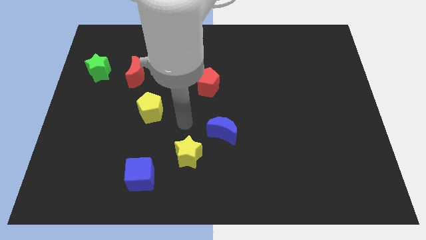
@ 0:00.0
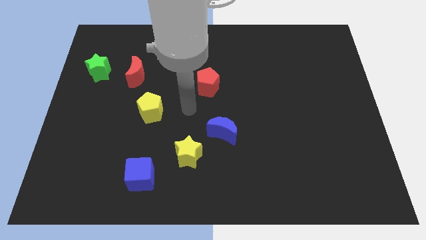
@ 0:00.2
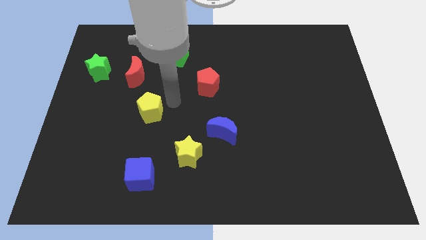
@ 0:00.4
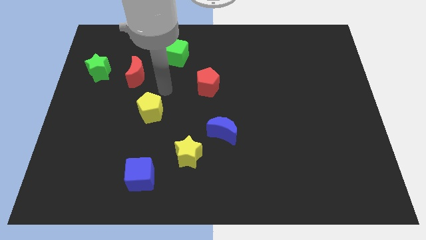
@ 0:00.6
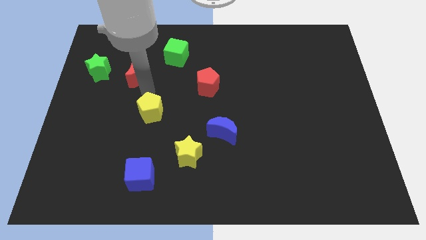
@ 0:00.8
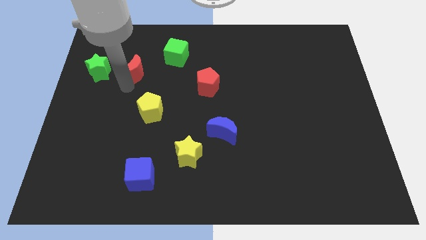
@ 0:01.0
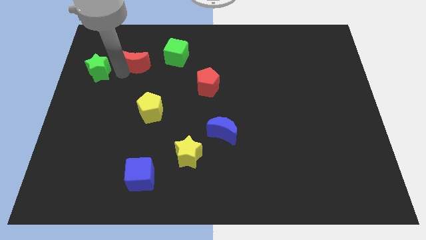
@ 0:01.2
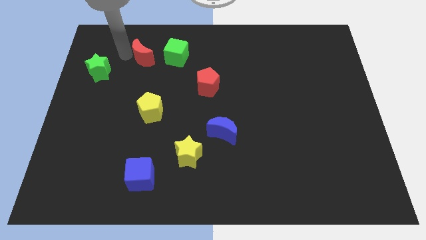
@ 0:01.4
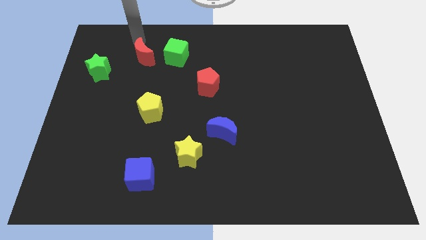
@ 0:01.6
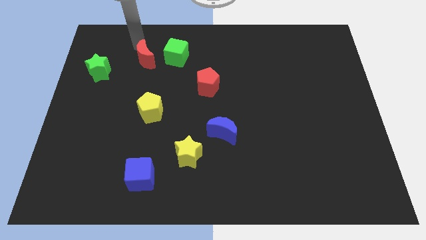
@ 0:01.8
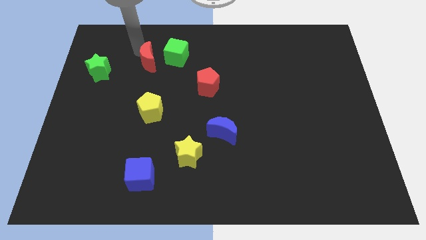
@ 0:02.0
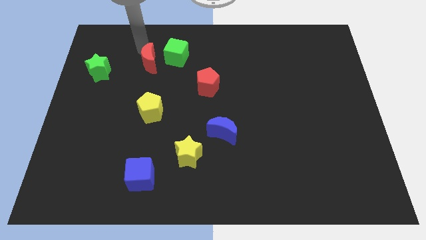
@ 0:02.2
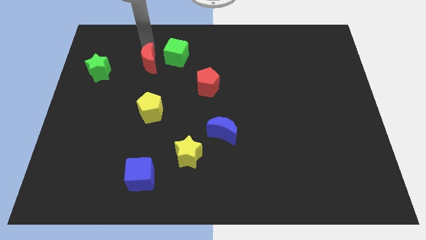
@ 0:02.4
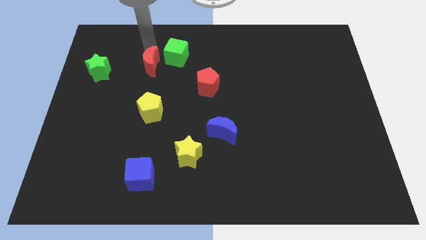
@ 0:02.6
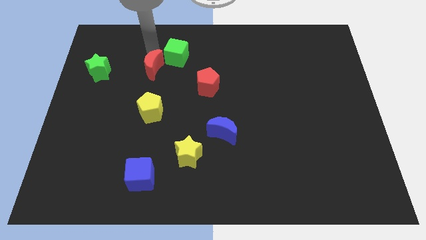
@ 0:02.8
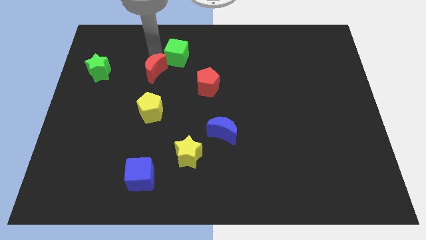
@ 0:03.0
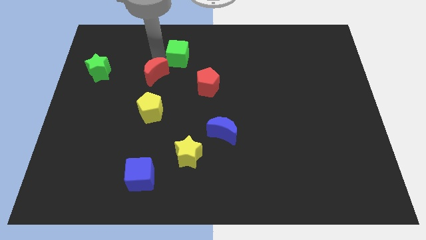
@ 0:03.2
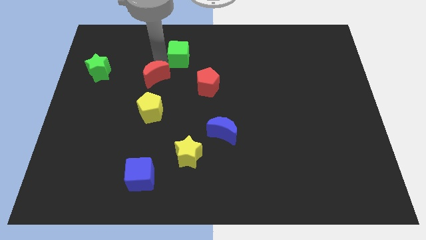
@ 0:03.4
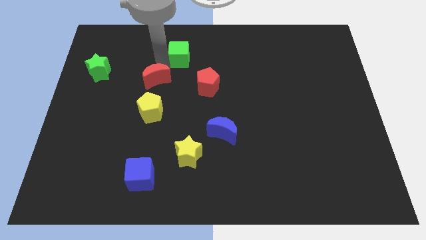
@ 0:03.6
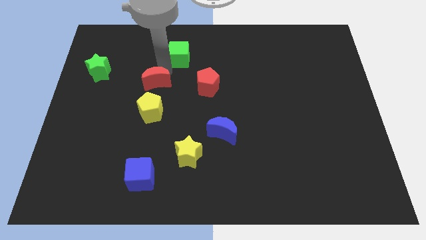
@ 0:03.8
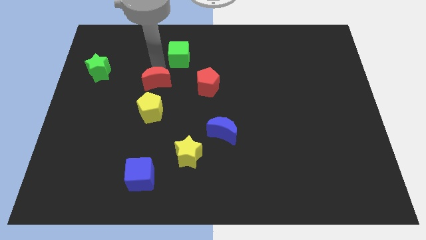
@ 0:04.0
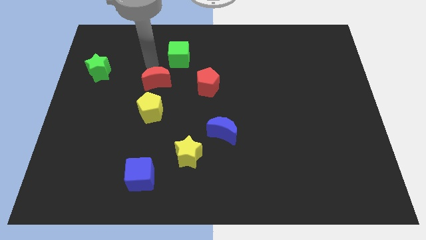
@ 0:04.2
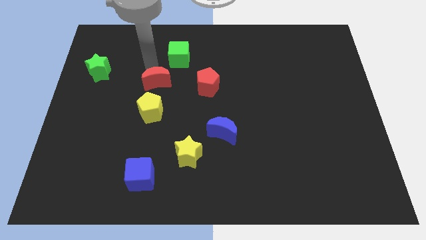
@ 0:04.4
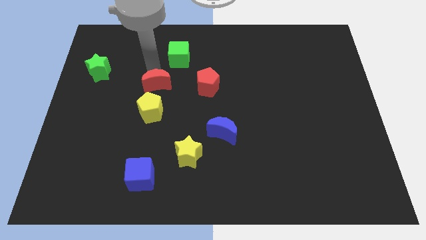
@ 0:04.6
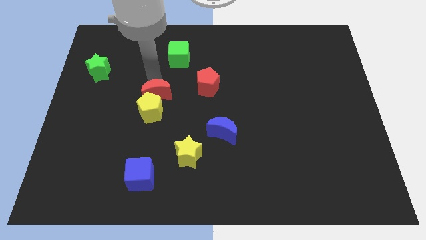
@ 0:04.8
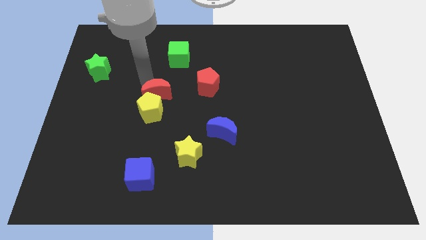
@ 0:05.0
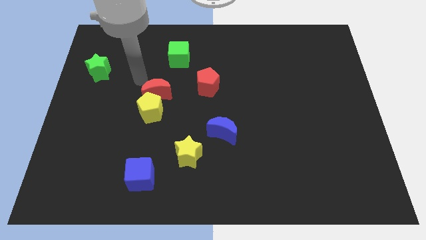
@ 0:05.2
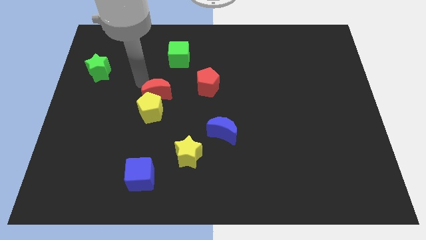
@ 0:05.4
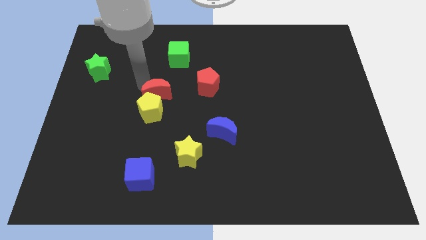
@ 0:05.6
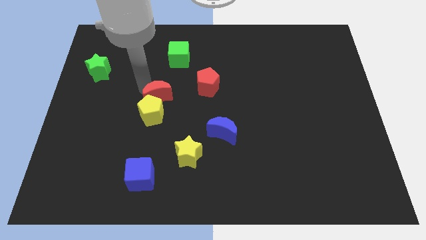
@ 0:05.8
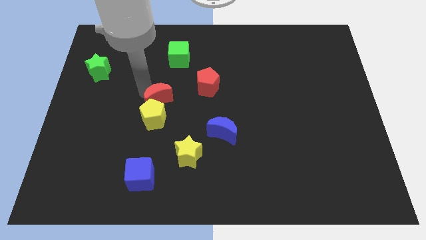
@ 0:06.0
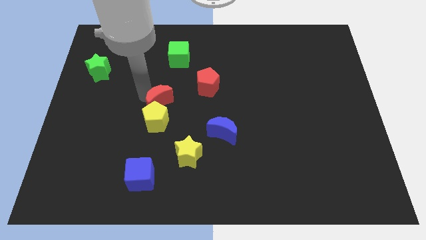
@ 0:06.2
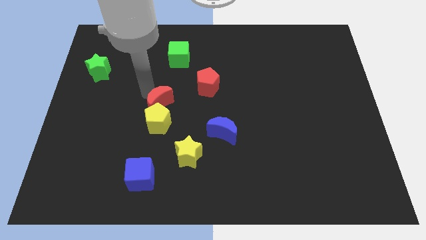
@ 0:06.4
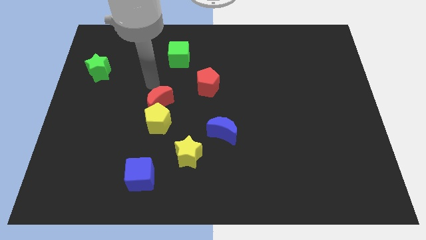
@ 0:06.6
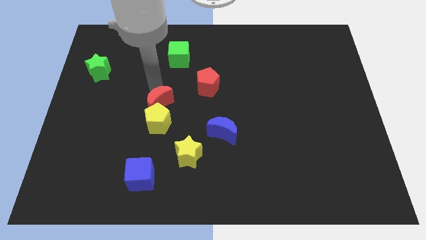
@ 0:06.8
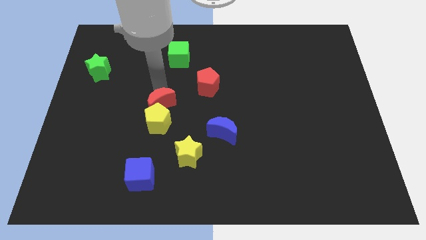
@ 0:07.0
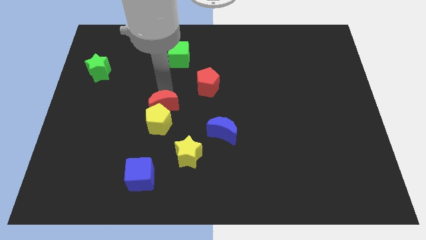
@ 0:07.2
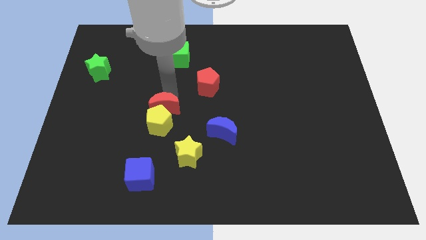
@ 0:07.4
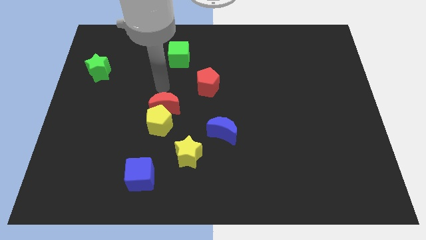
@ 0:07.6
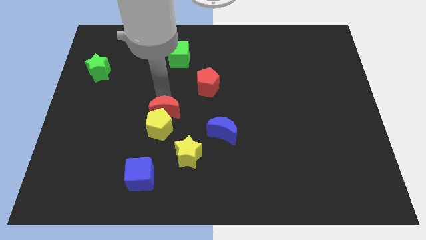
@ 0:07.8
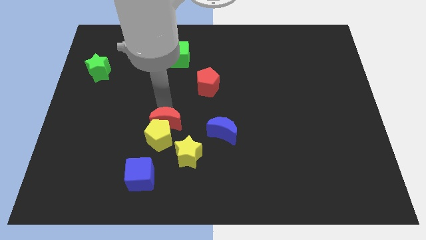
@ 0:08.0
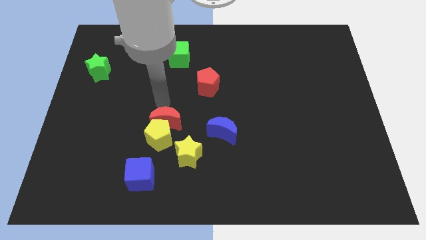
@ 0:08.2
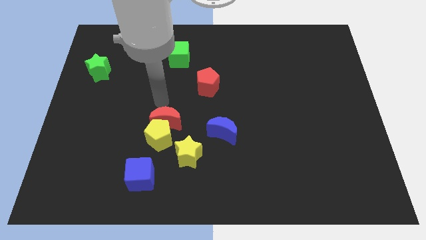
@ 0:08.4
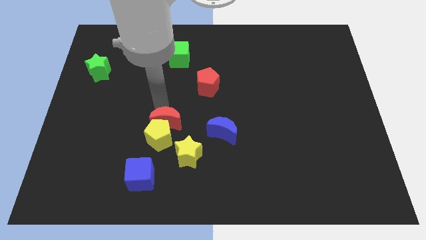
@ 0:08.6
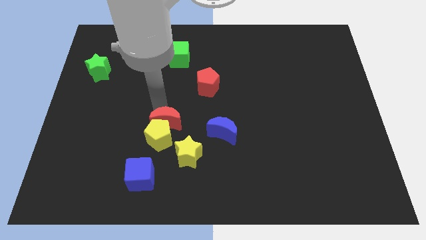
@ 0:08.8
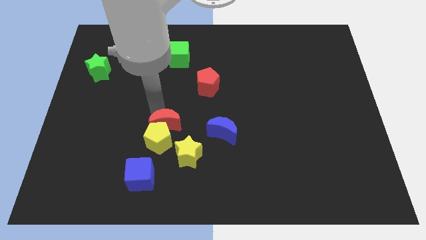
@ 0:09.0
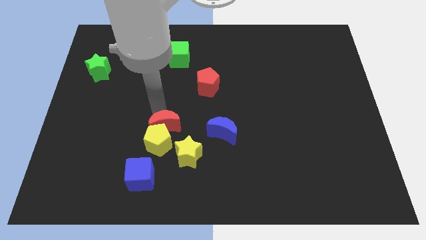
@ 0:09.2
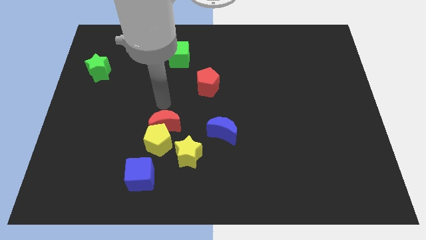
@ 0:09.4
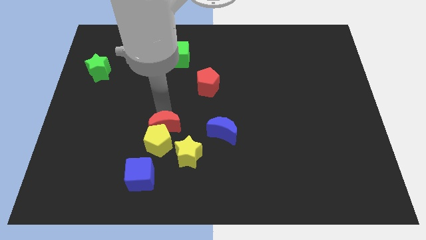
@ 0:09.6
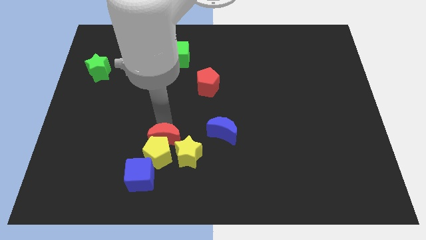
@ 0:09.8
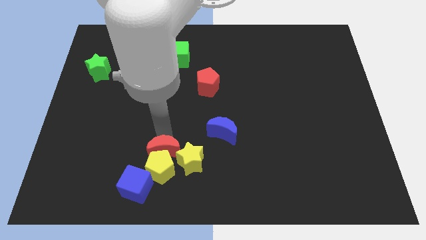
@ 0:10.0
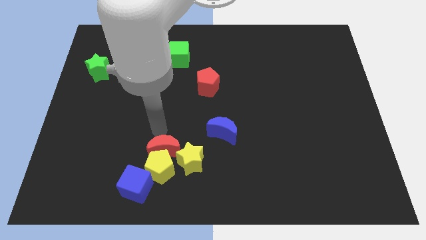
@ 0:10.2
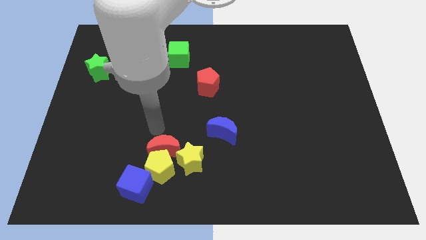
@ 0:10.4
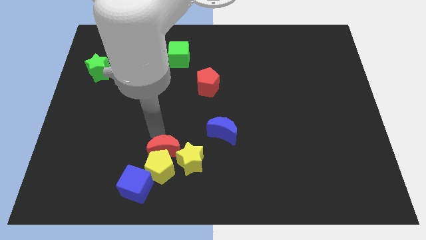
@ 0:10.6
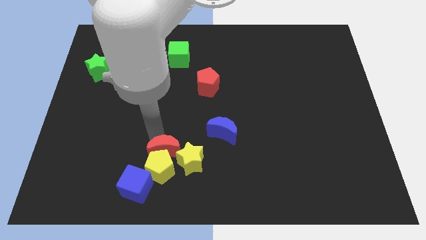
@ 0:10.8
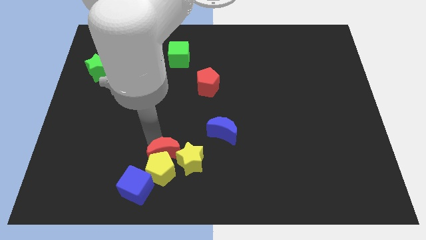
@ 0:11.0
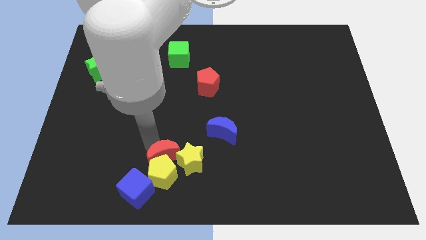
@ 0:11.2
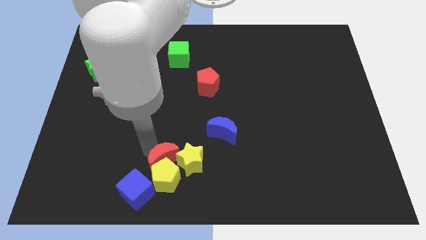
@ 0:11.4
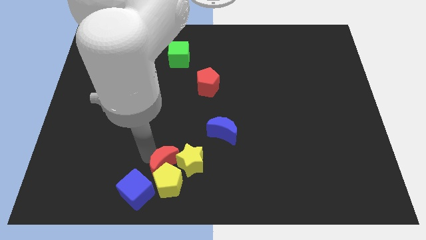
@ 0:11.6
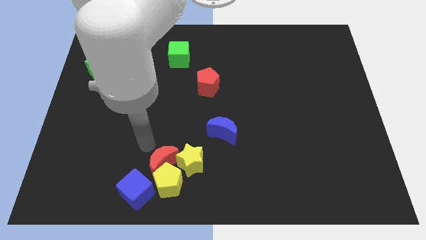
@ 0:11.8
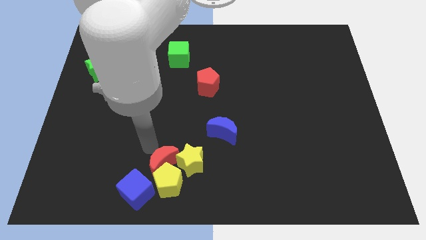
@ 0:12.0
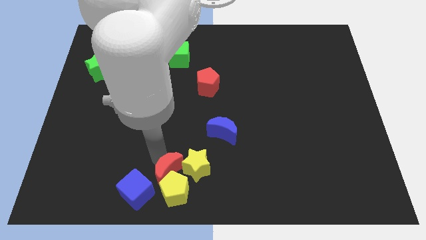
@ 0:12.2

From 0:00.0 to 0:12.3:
slide the red moon to the bottom side
